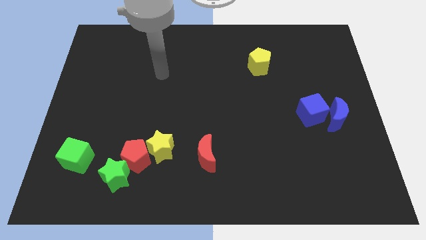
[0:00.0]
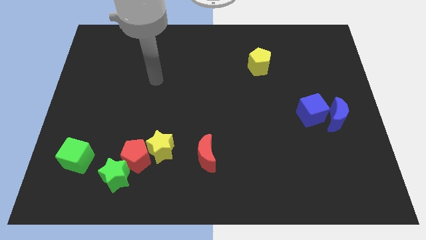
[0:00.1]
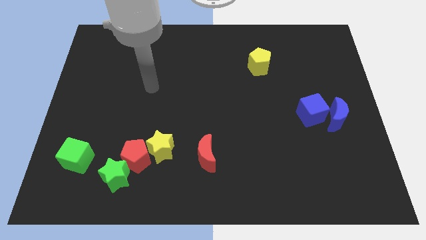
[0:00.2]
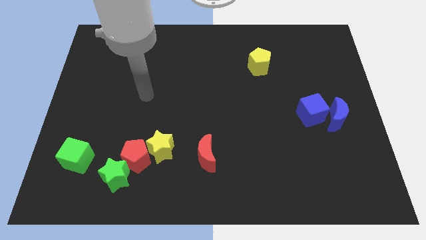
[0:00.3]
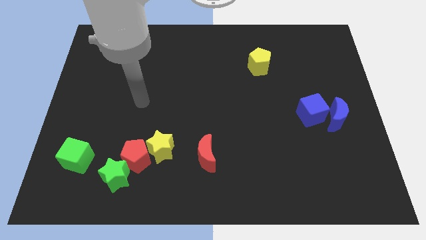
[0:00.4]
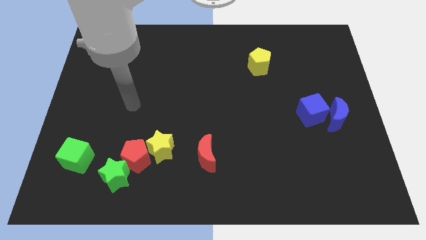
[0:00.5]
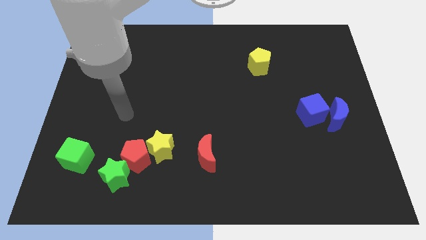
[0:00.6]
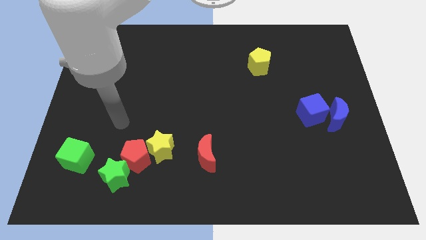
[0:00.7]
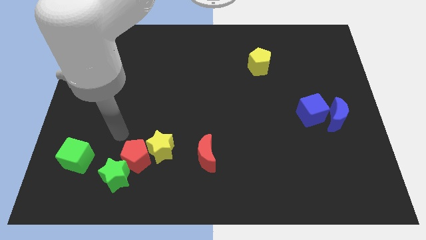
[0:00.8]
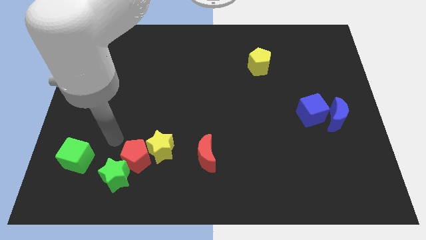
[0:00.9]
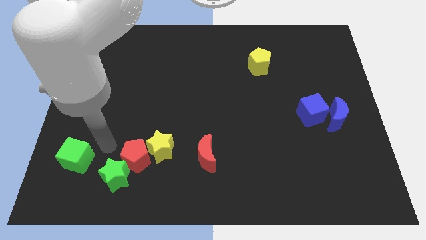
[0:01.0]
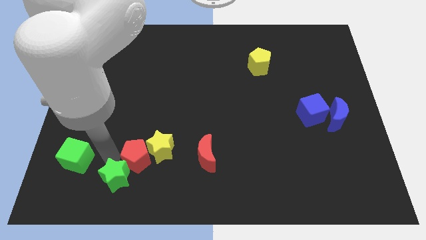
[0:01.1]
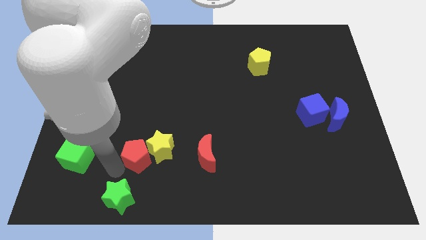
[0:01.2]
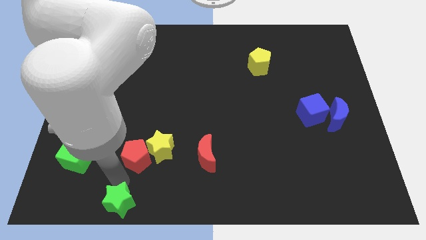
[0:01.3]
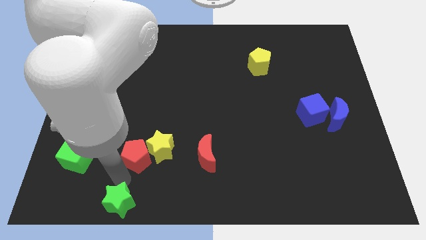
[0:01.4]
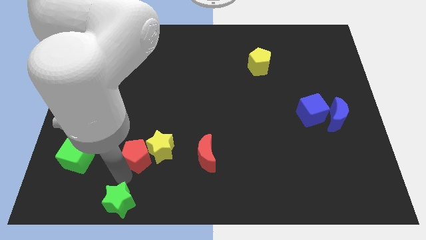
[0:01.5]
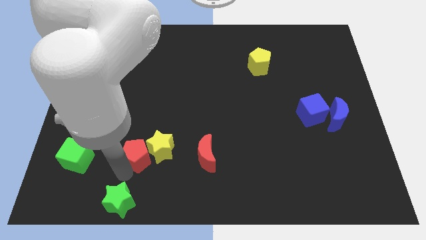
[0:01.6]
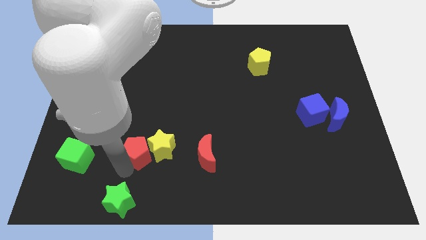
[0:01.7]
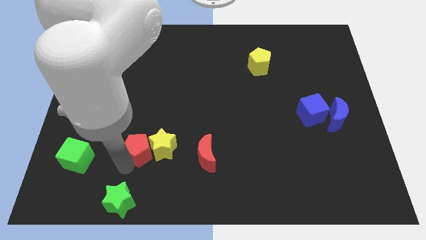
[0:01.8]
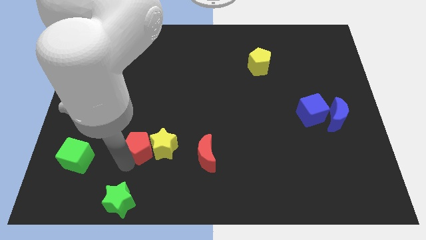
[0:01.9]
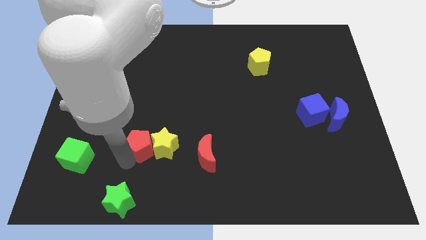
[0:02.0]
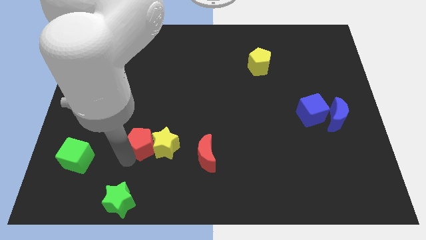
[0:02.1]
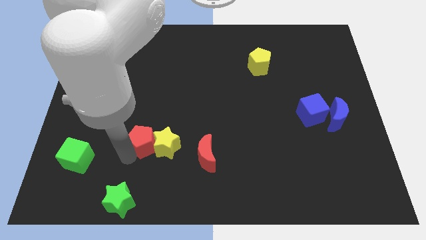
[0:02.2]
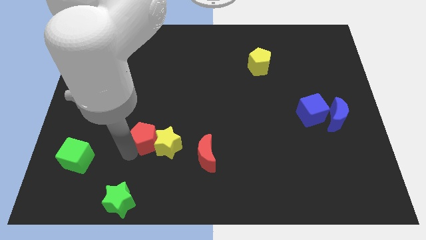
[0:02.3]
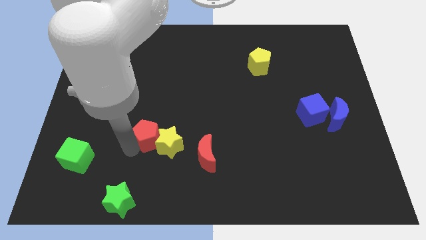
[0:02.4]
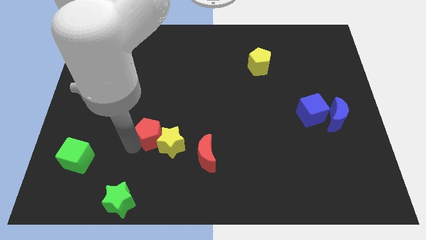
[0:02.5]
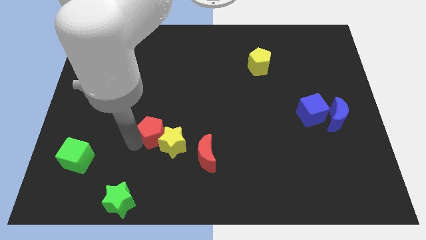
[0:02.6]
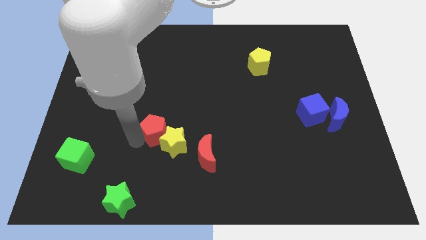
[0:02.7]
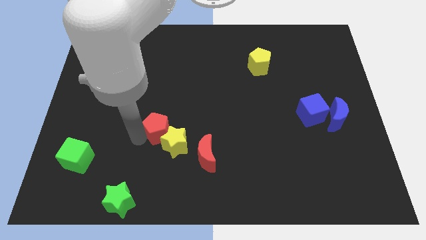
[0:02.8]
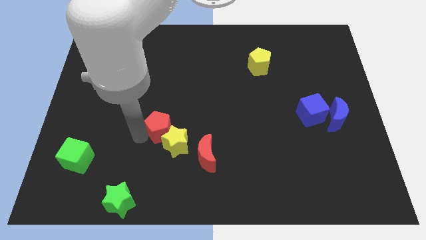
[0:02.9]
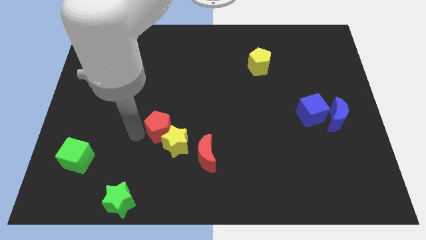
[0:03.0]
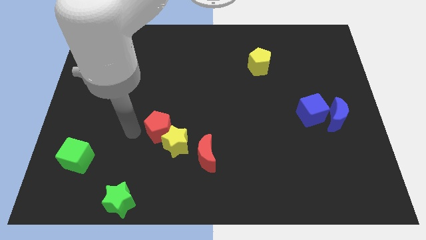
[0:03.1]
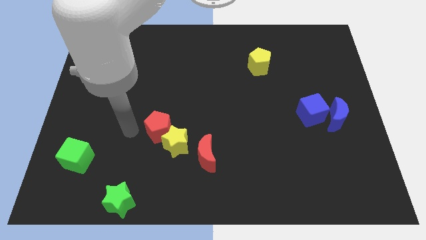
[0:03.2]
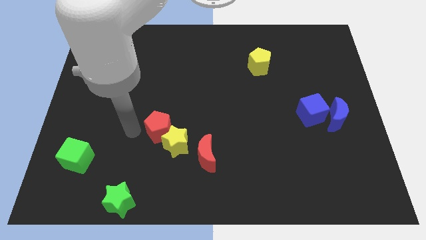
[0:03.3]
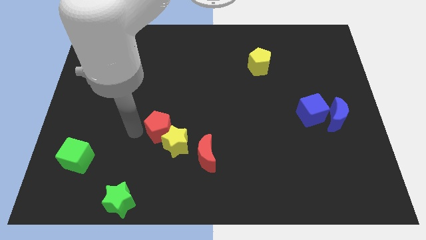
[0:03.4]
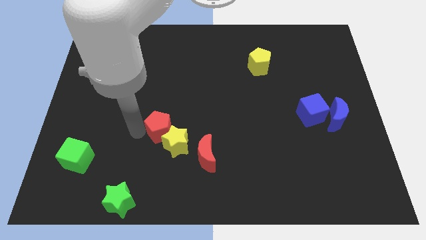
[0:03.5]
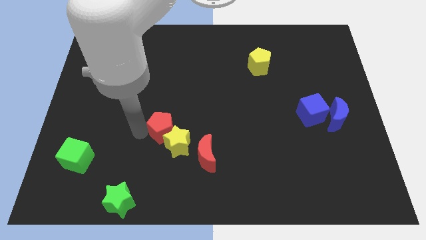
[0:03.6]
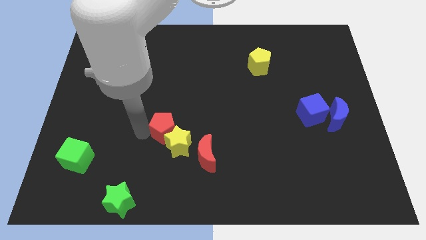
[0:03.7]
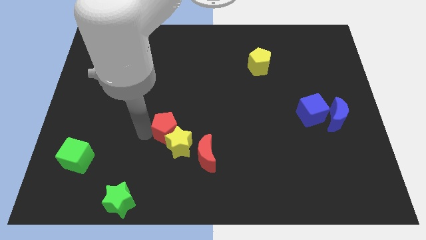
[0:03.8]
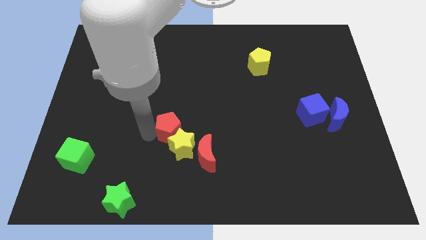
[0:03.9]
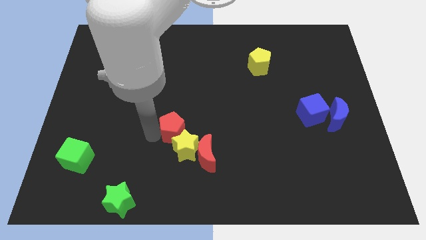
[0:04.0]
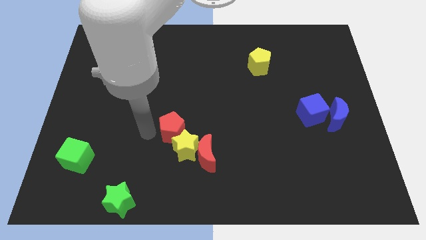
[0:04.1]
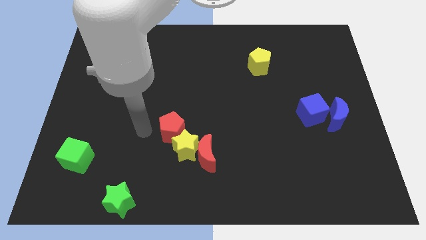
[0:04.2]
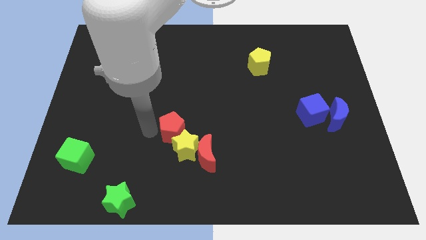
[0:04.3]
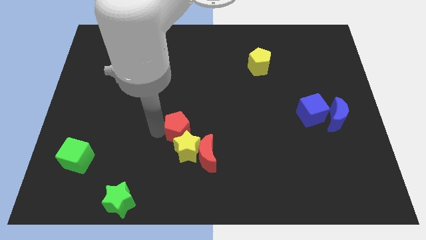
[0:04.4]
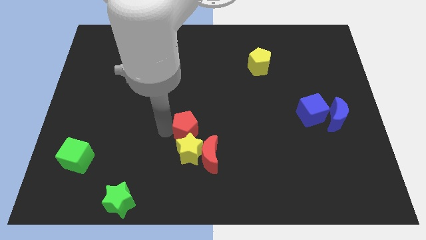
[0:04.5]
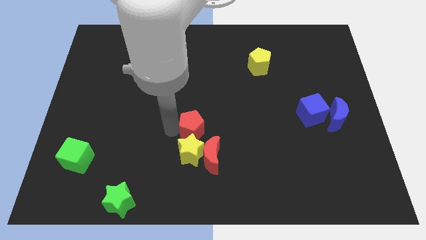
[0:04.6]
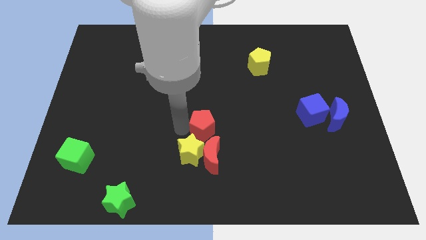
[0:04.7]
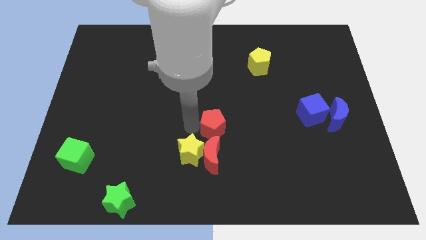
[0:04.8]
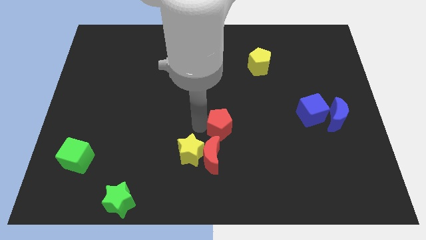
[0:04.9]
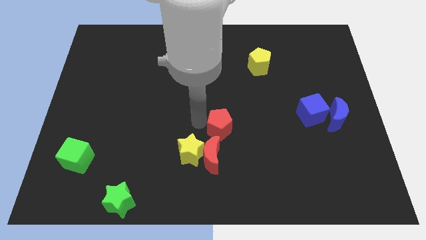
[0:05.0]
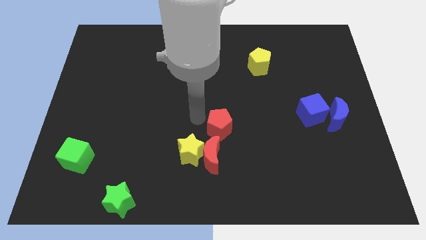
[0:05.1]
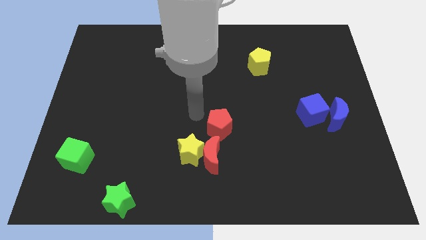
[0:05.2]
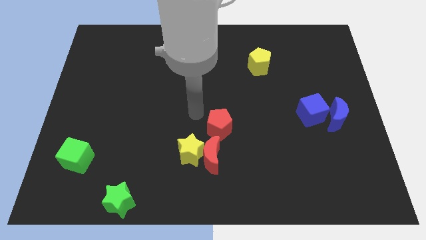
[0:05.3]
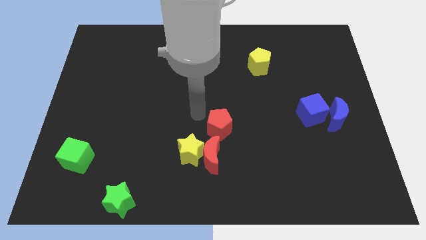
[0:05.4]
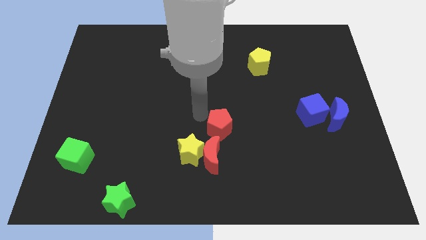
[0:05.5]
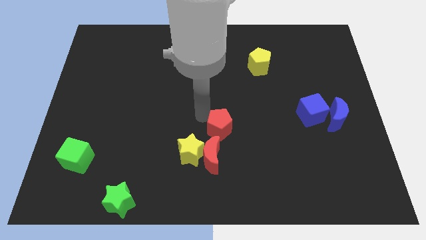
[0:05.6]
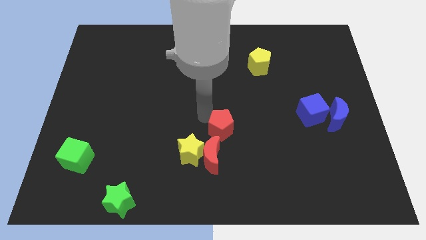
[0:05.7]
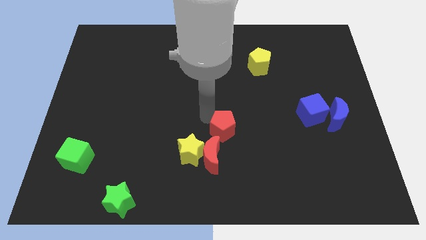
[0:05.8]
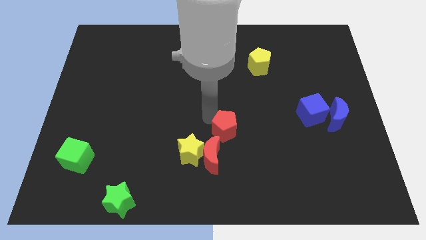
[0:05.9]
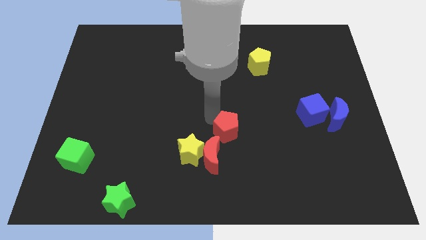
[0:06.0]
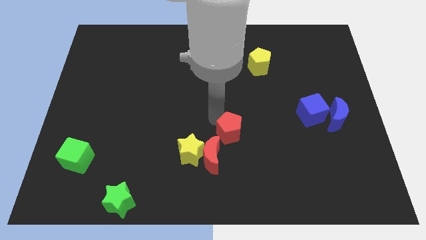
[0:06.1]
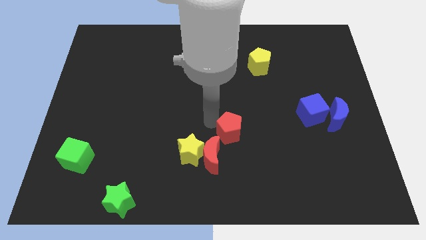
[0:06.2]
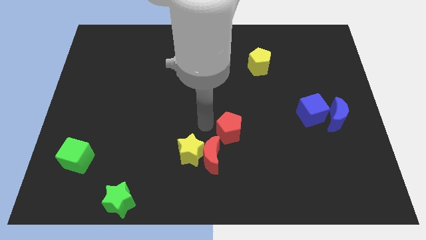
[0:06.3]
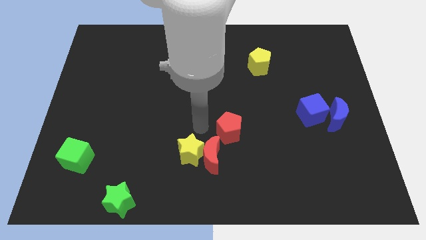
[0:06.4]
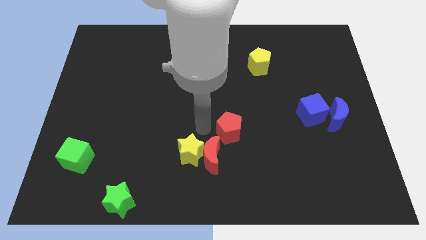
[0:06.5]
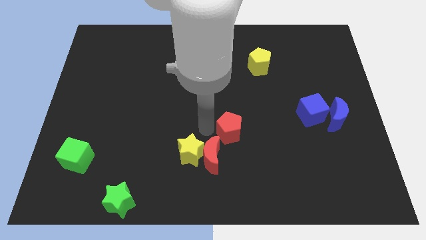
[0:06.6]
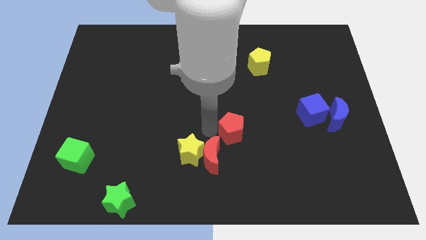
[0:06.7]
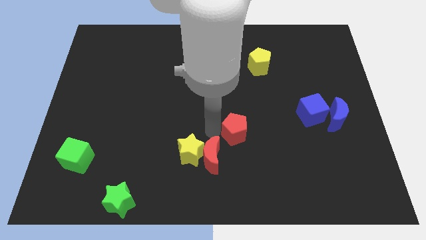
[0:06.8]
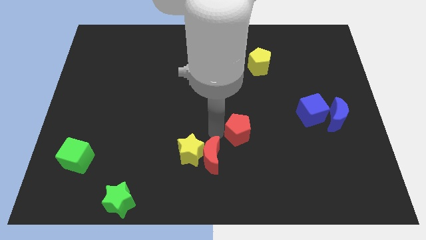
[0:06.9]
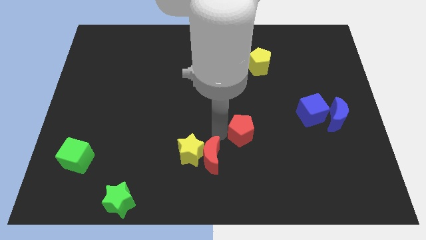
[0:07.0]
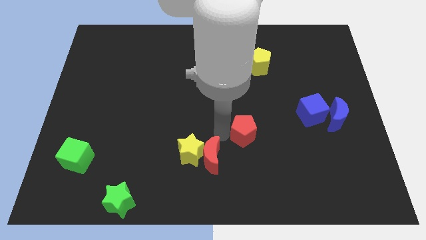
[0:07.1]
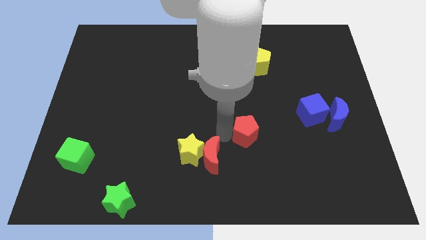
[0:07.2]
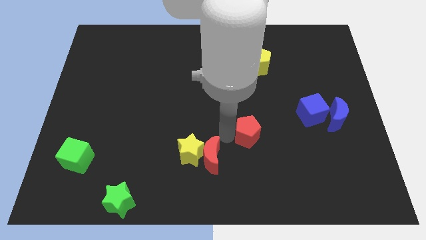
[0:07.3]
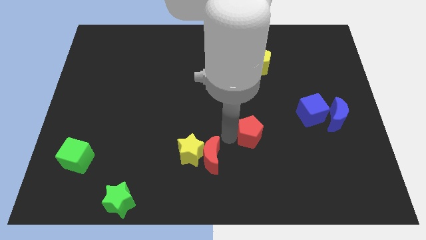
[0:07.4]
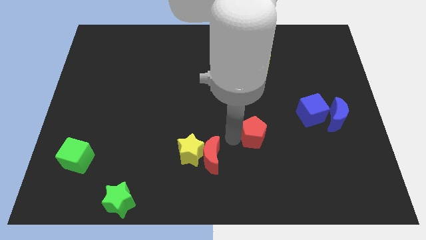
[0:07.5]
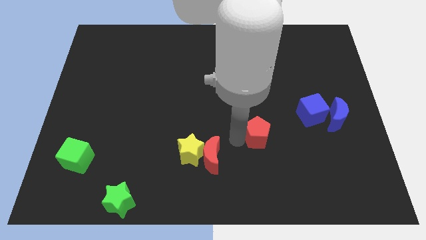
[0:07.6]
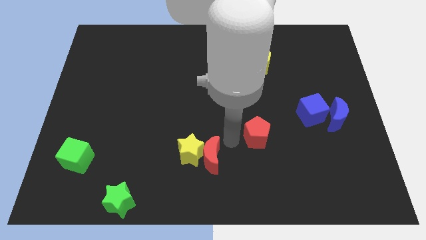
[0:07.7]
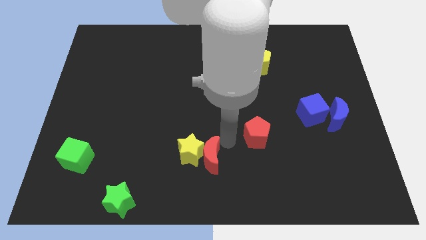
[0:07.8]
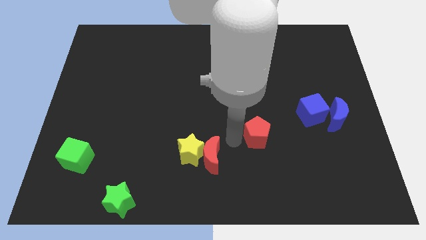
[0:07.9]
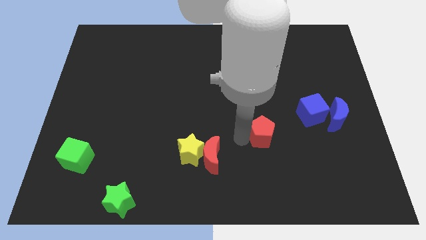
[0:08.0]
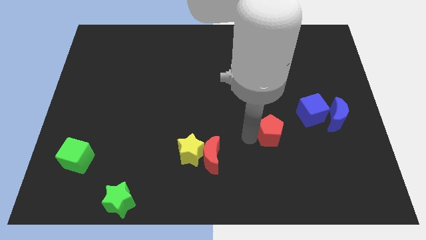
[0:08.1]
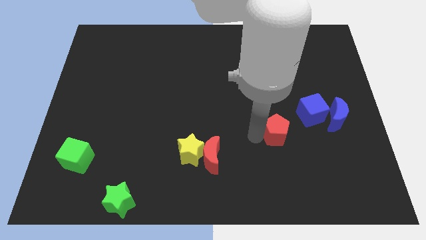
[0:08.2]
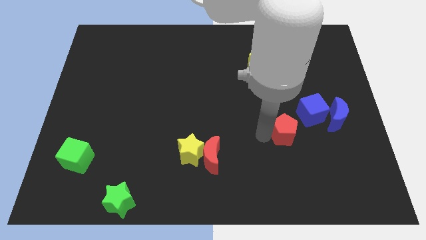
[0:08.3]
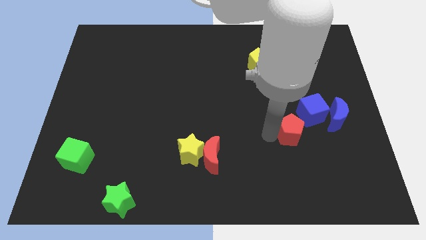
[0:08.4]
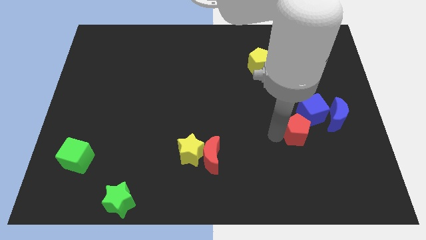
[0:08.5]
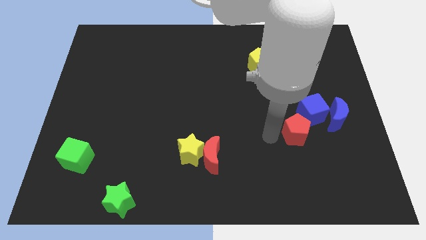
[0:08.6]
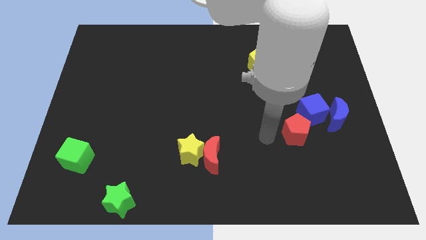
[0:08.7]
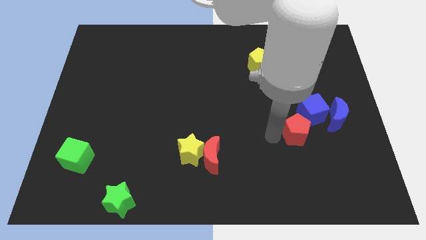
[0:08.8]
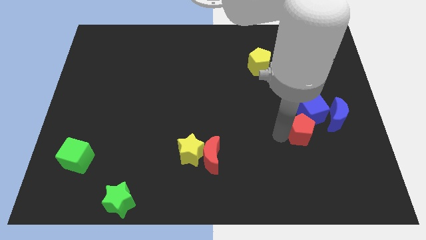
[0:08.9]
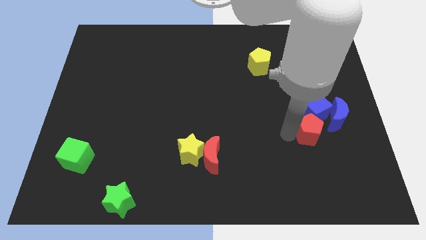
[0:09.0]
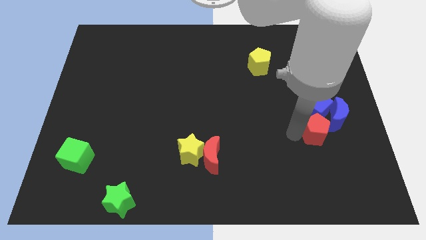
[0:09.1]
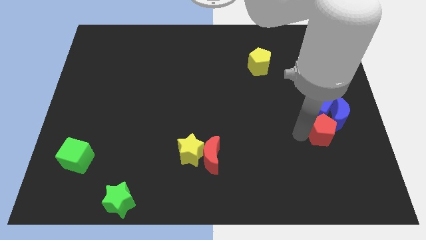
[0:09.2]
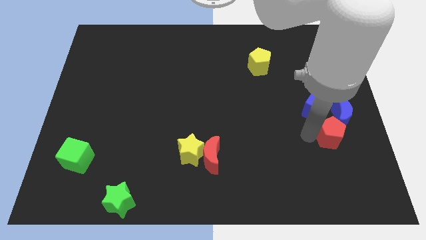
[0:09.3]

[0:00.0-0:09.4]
slide the red pentagon next to the blue moon
